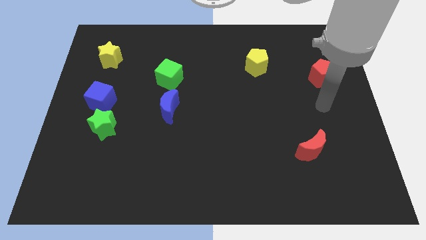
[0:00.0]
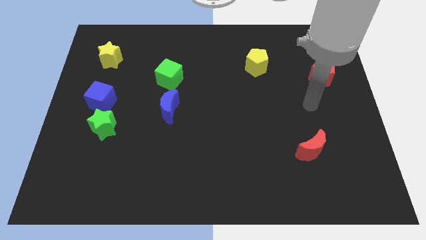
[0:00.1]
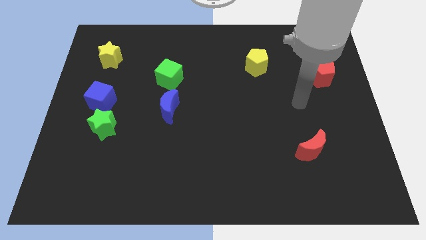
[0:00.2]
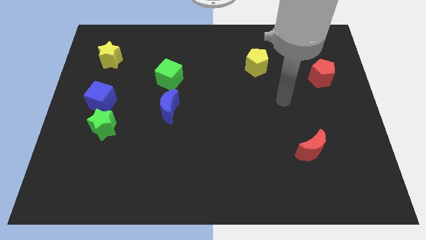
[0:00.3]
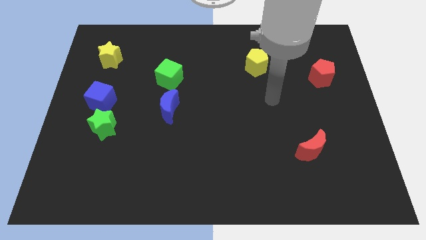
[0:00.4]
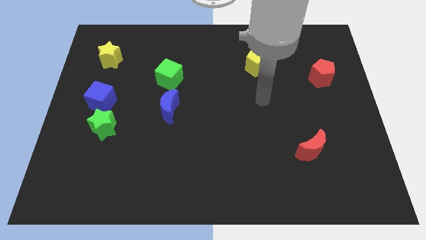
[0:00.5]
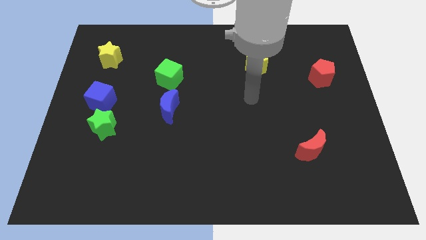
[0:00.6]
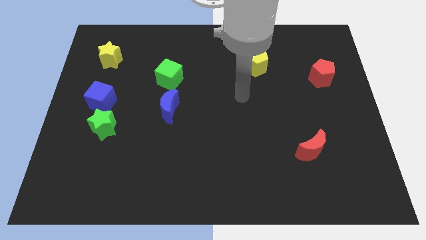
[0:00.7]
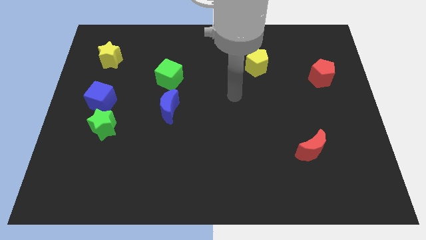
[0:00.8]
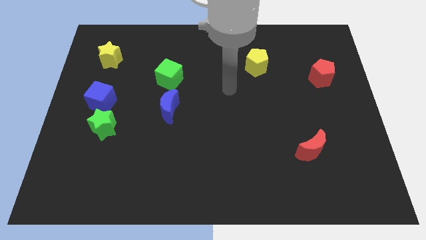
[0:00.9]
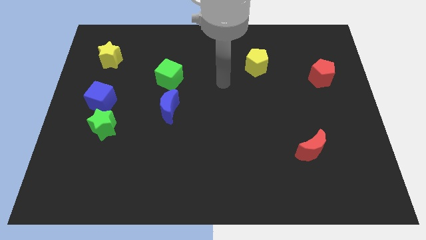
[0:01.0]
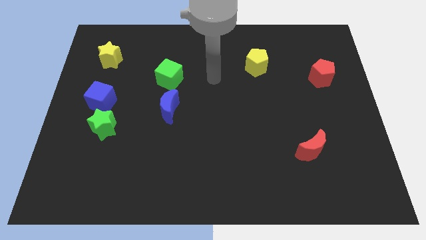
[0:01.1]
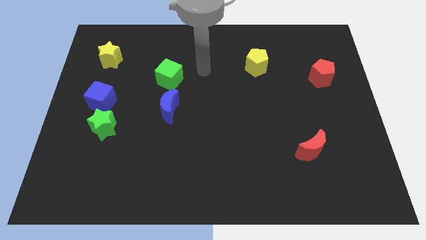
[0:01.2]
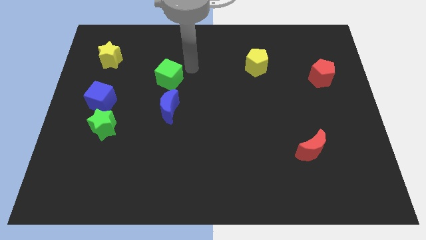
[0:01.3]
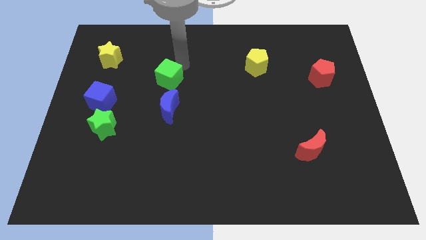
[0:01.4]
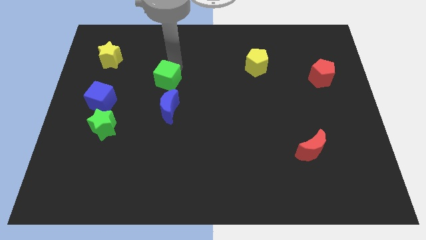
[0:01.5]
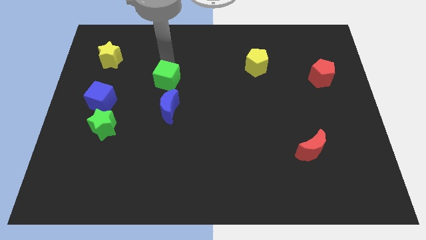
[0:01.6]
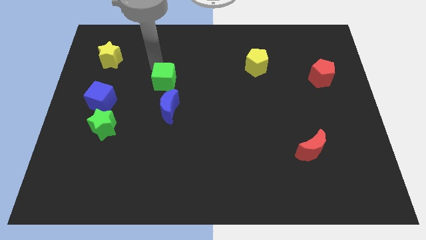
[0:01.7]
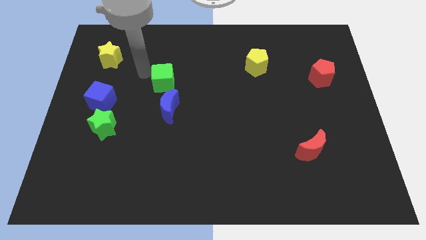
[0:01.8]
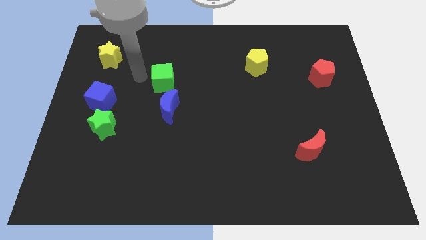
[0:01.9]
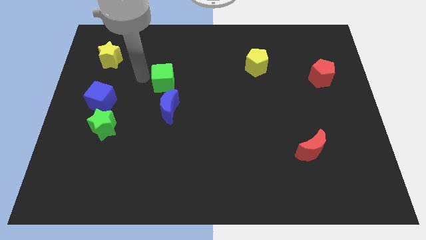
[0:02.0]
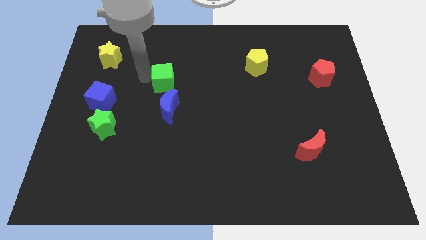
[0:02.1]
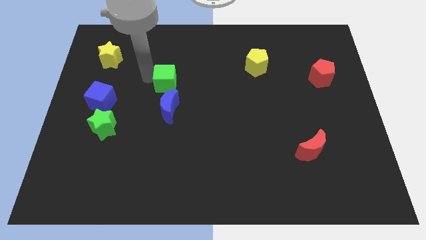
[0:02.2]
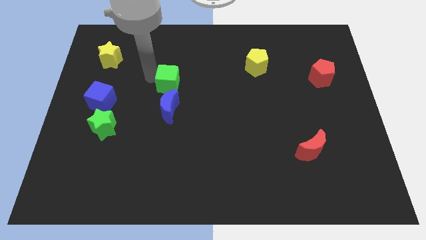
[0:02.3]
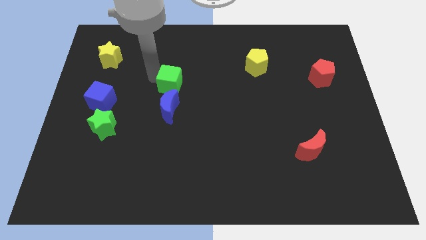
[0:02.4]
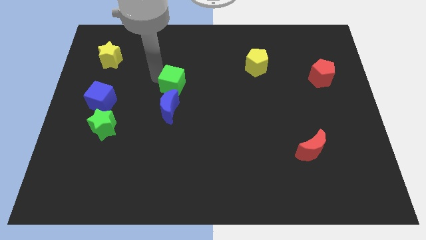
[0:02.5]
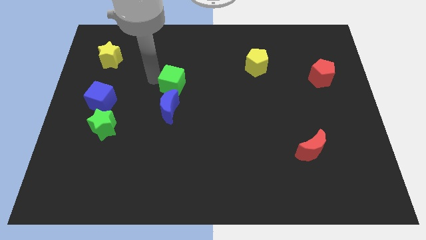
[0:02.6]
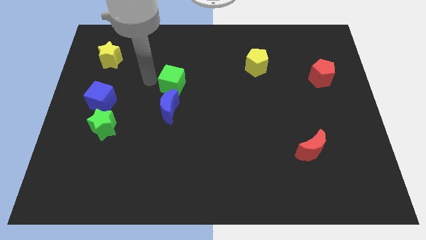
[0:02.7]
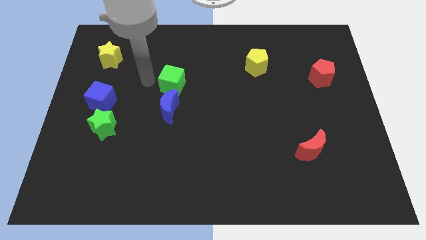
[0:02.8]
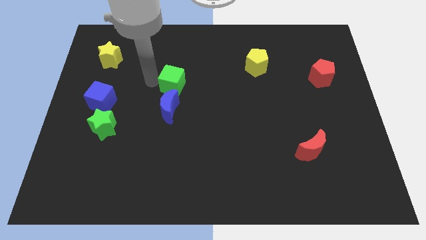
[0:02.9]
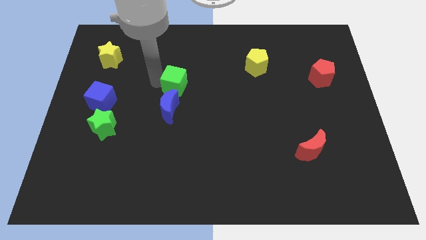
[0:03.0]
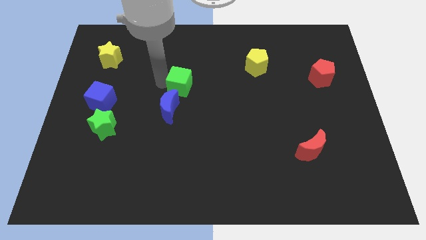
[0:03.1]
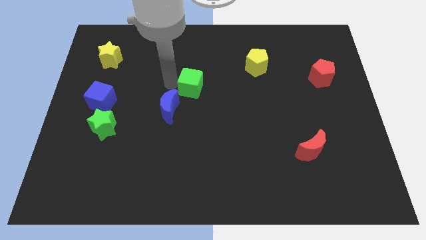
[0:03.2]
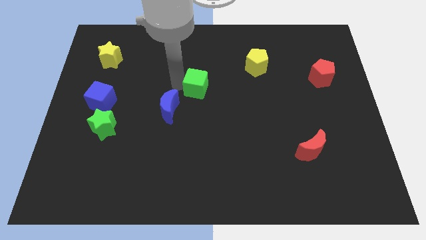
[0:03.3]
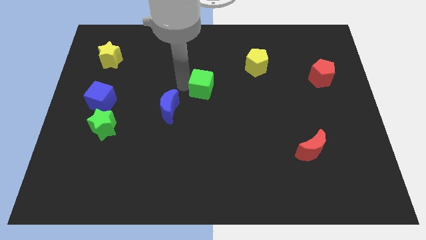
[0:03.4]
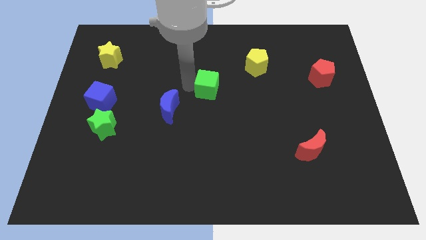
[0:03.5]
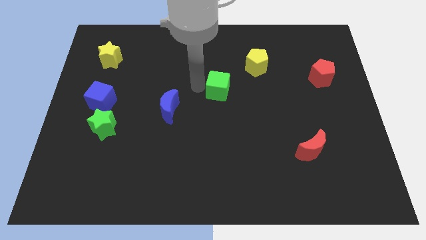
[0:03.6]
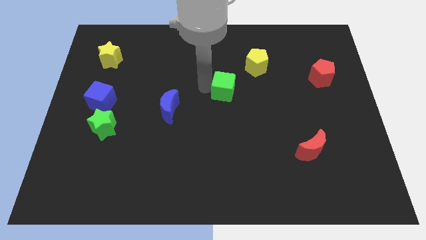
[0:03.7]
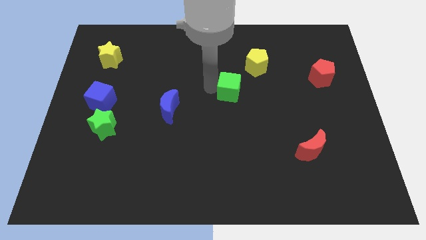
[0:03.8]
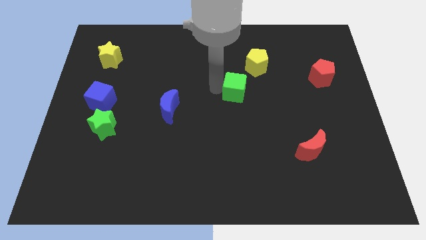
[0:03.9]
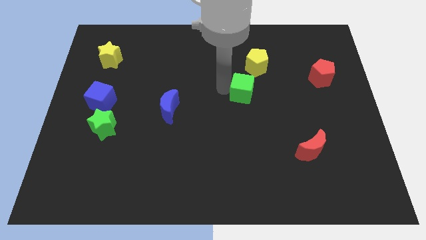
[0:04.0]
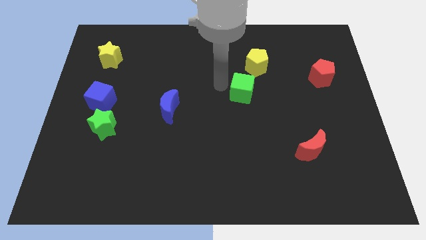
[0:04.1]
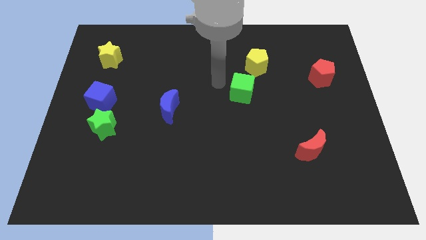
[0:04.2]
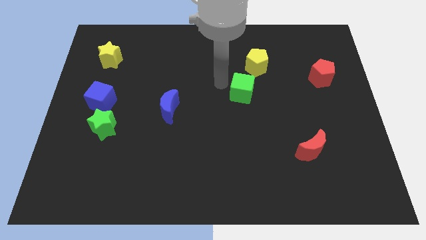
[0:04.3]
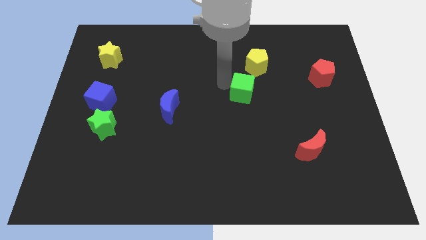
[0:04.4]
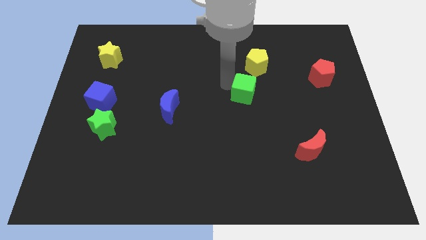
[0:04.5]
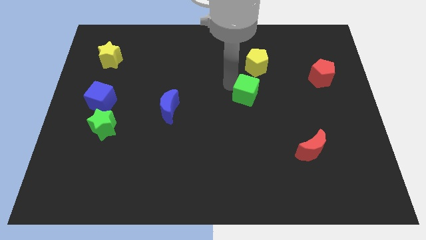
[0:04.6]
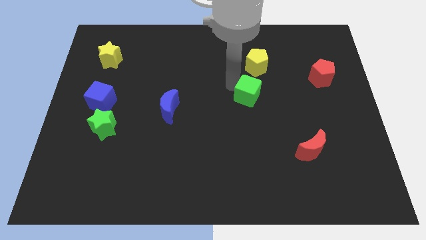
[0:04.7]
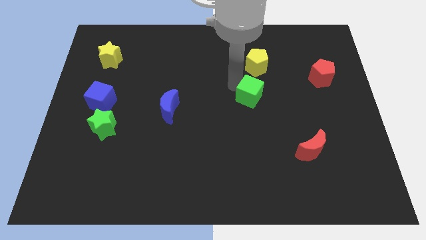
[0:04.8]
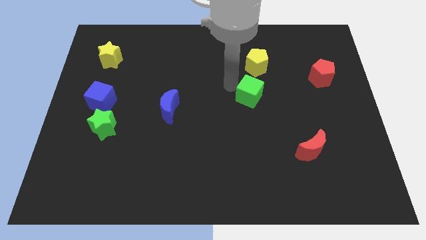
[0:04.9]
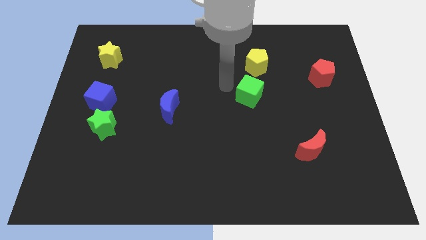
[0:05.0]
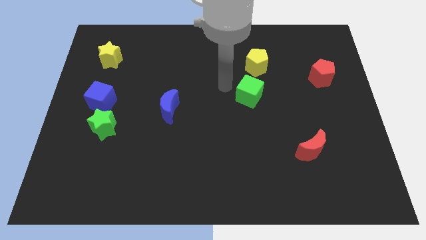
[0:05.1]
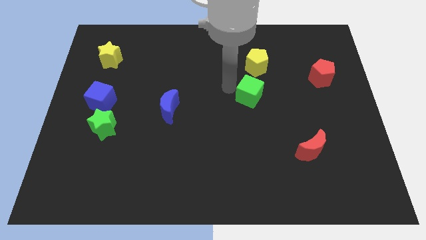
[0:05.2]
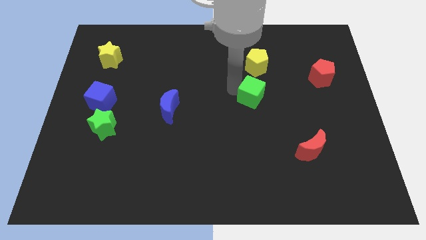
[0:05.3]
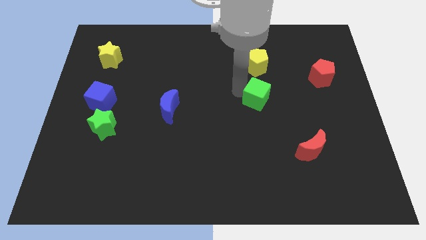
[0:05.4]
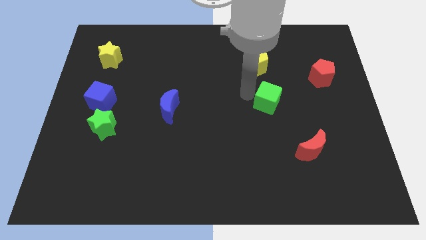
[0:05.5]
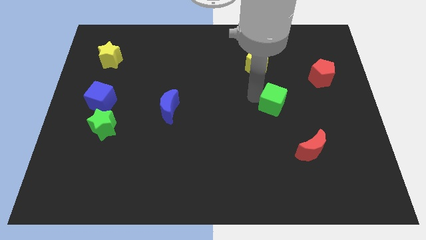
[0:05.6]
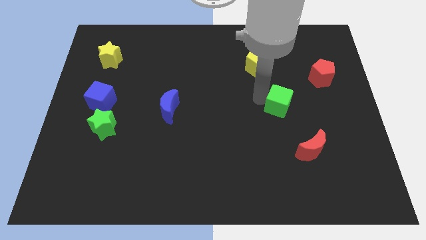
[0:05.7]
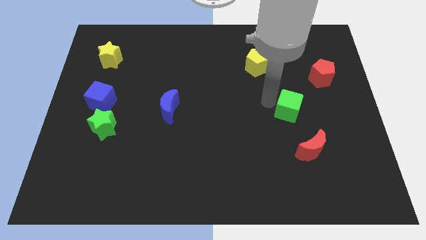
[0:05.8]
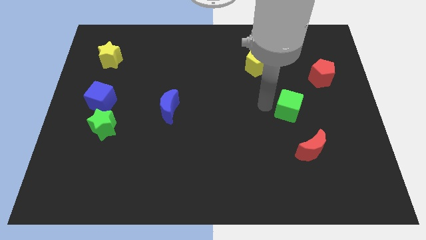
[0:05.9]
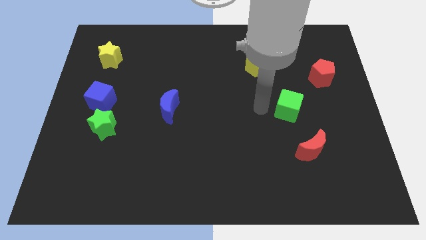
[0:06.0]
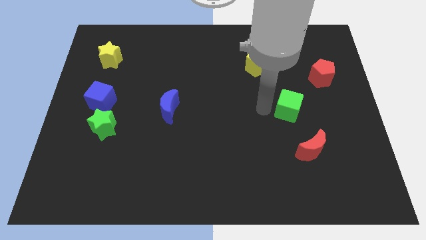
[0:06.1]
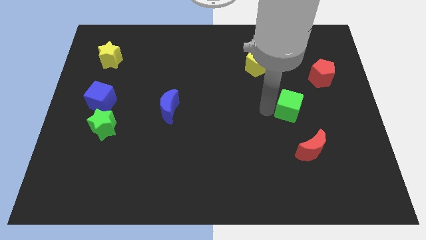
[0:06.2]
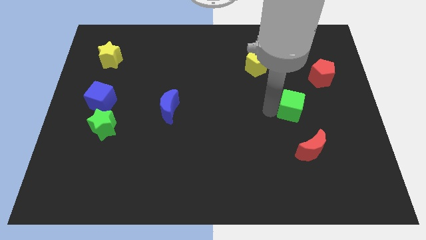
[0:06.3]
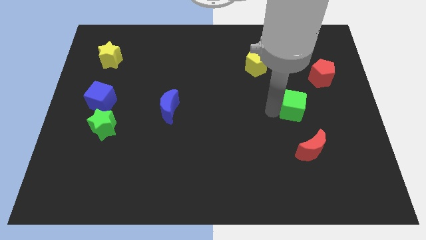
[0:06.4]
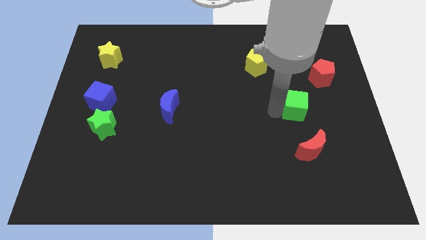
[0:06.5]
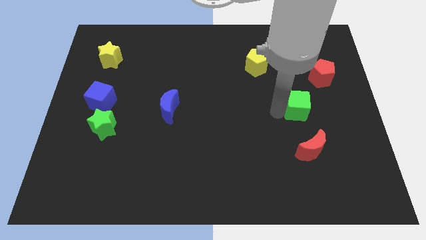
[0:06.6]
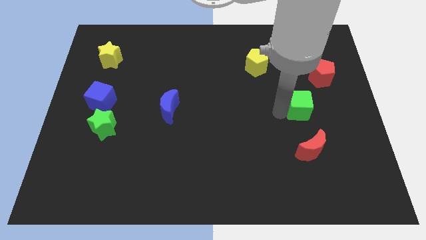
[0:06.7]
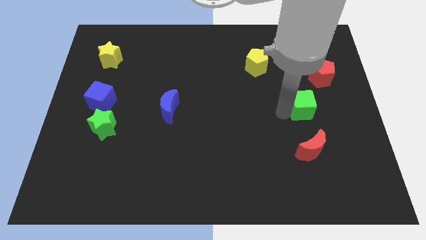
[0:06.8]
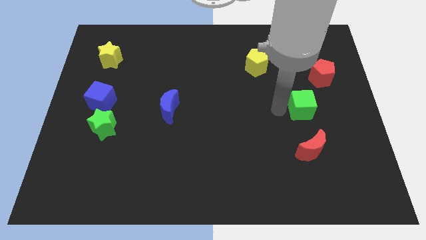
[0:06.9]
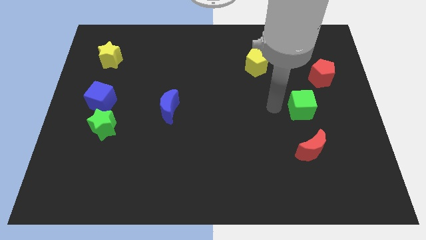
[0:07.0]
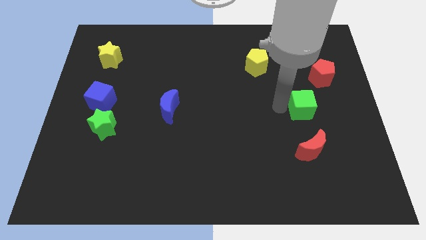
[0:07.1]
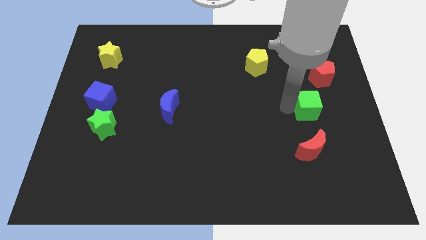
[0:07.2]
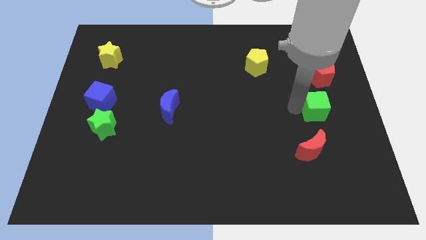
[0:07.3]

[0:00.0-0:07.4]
put the green cube to the bottom side of the red pentagon
